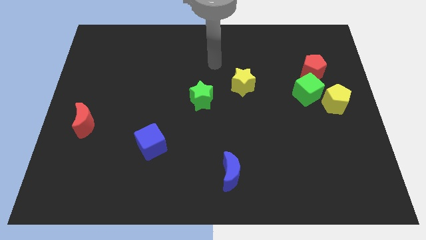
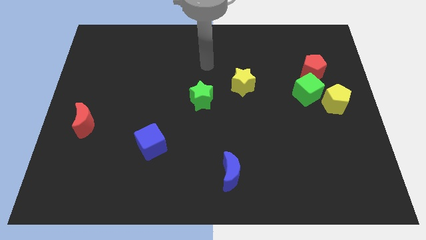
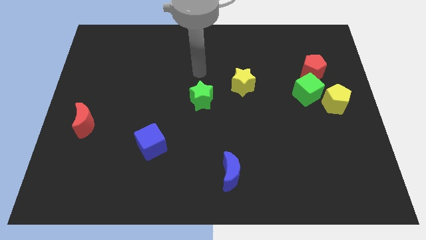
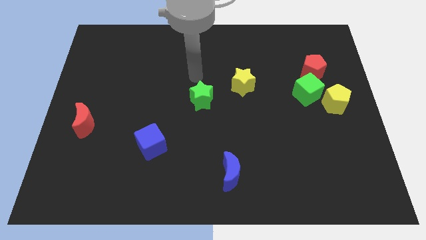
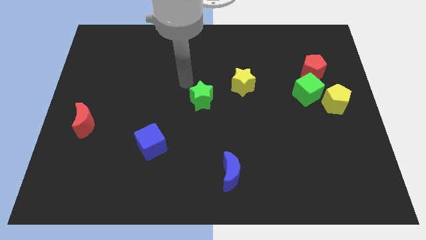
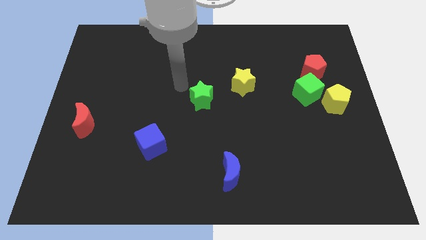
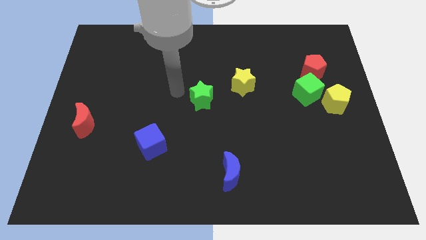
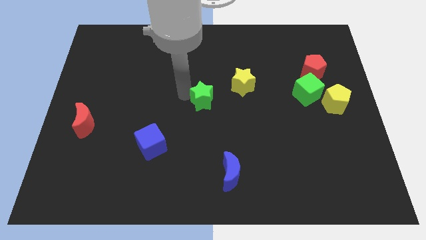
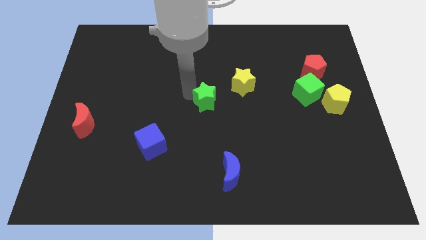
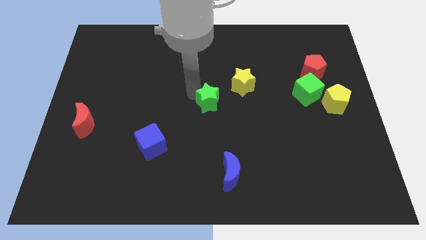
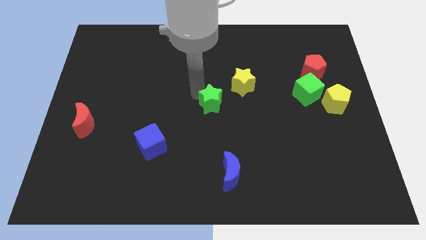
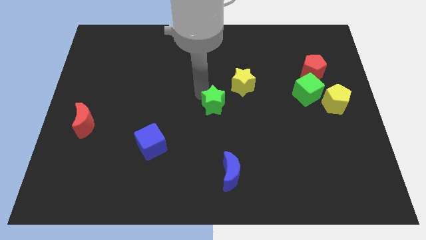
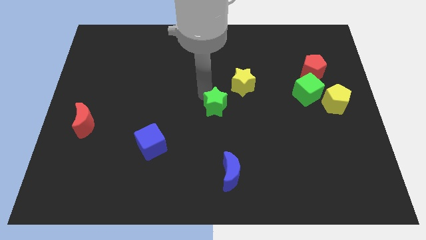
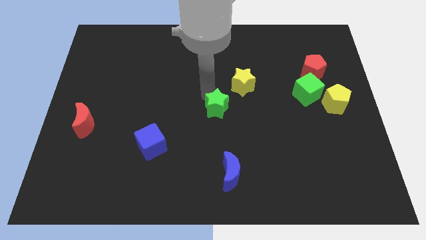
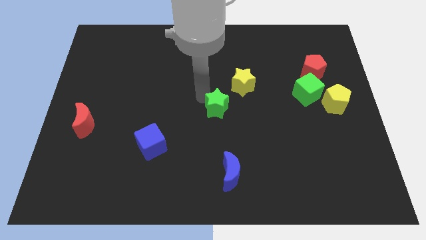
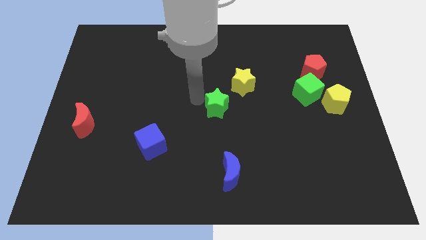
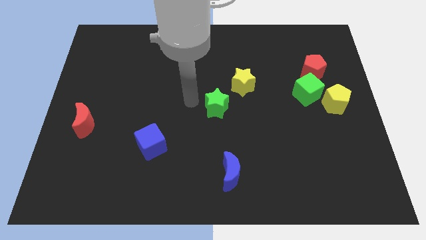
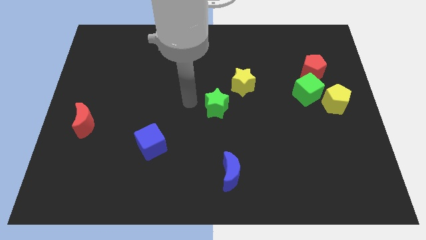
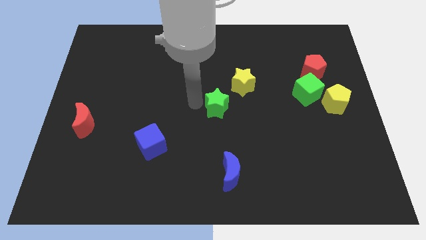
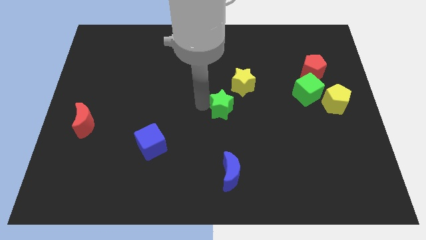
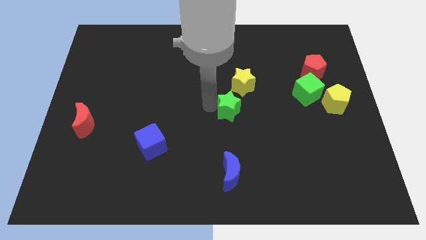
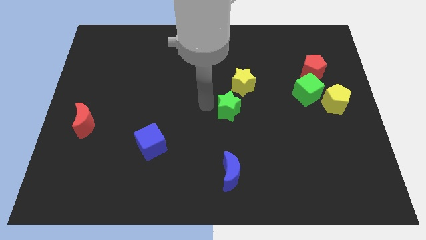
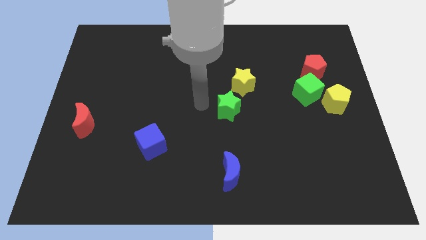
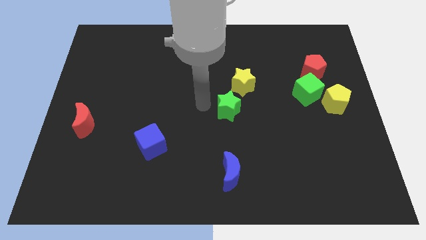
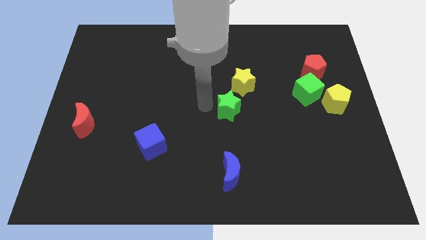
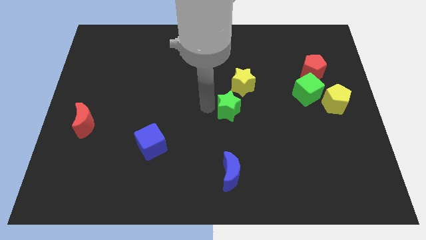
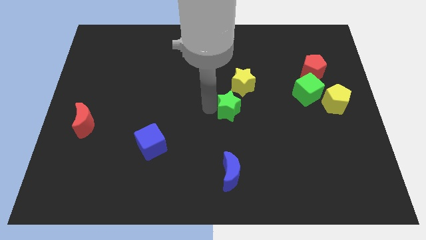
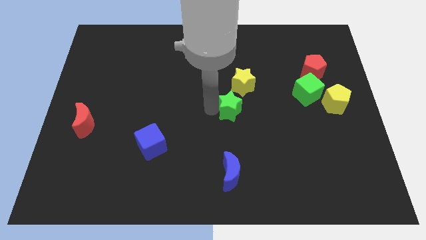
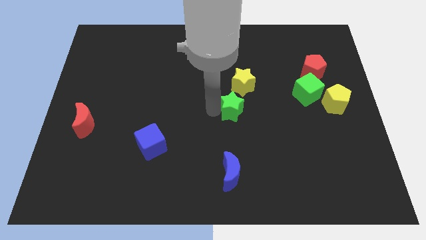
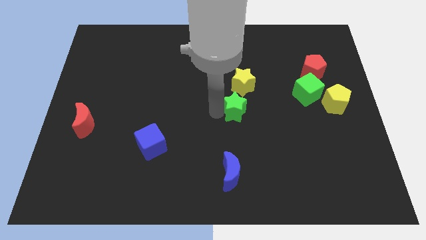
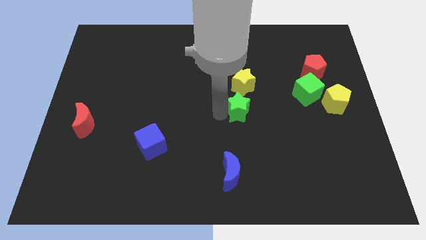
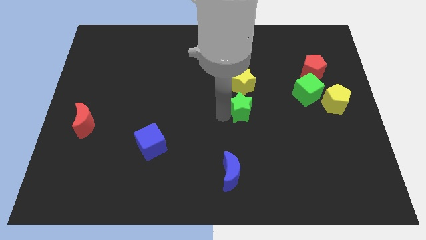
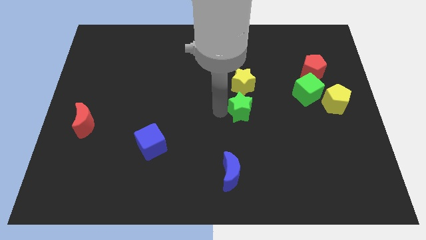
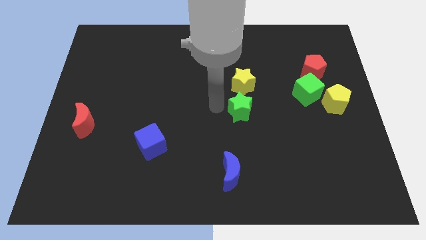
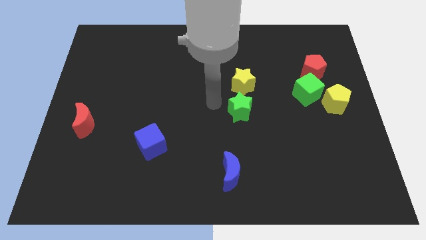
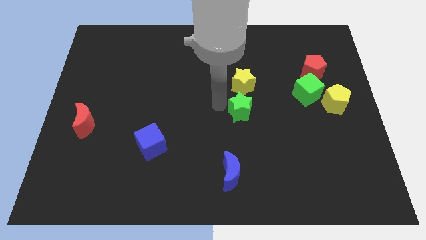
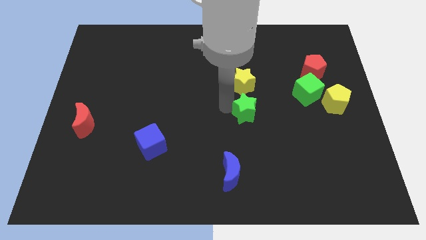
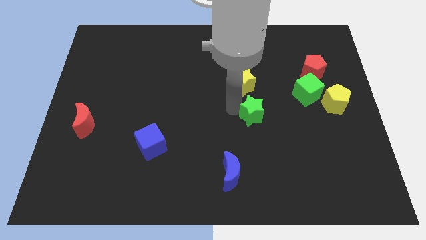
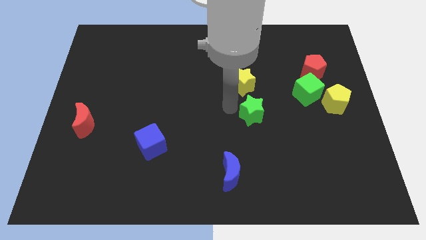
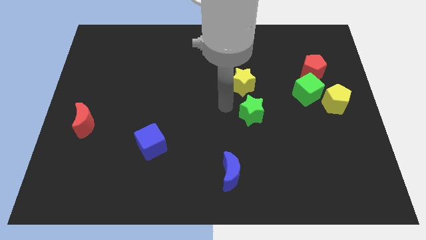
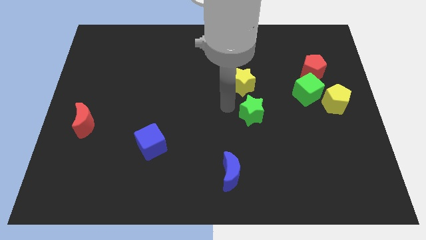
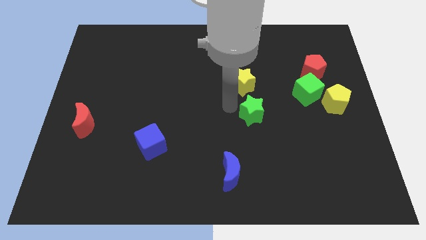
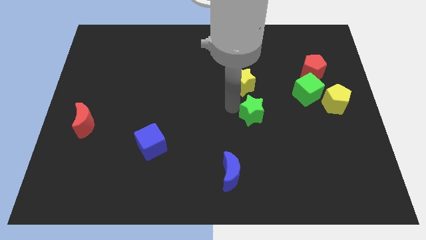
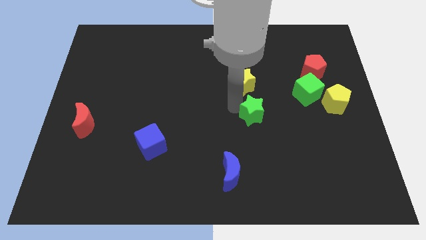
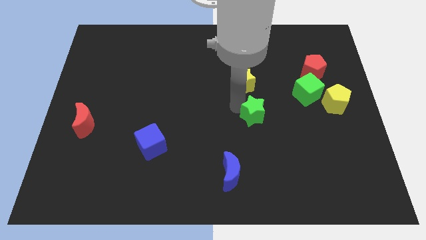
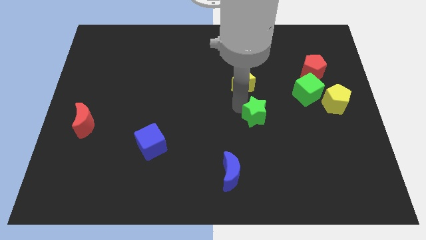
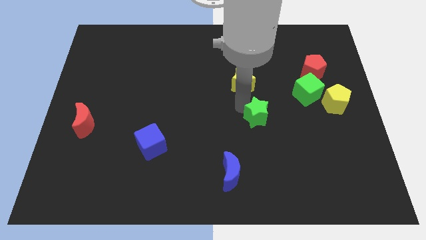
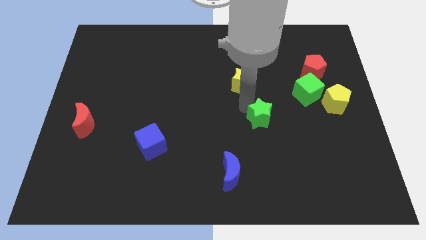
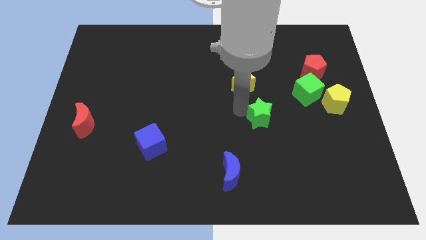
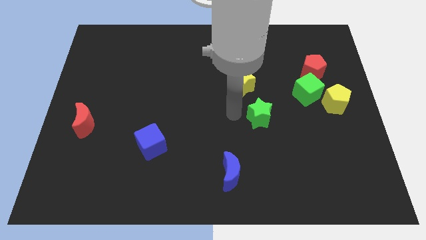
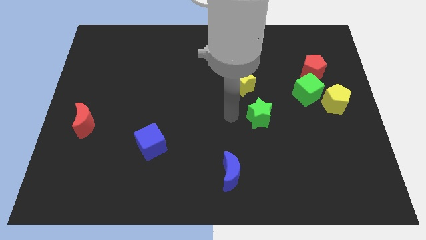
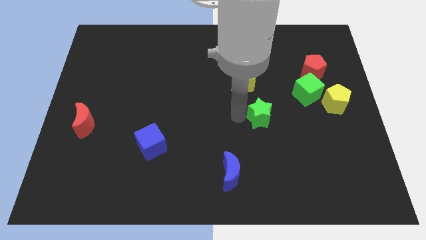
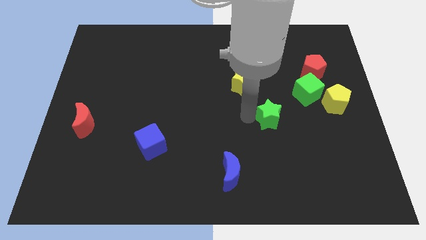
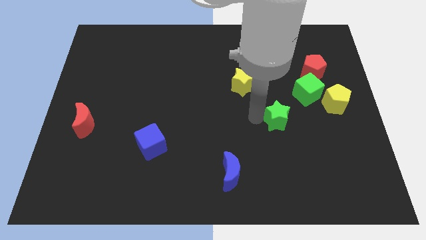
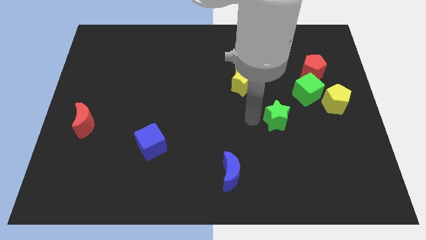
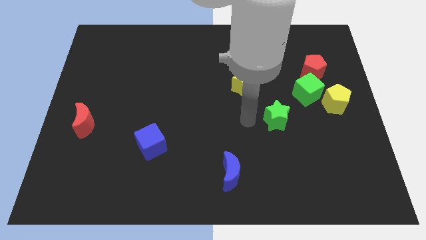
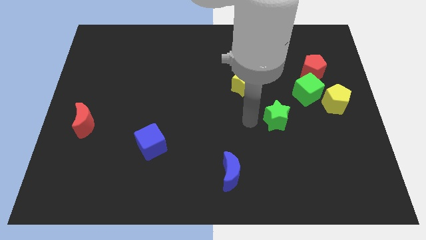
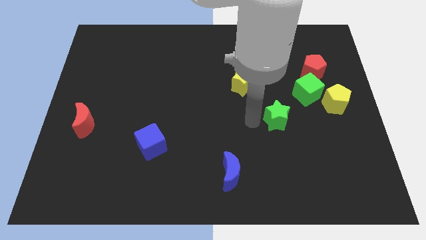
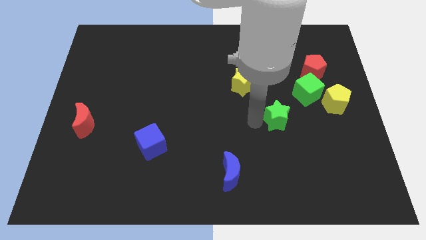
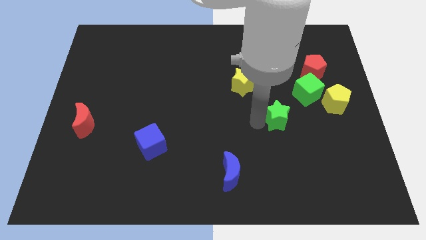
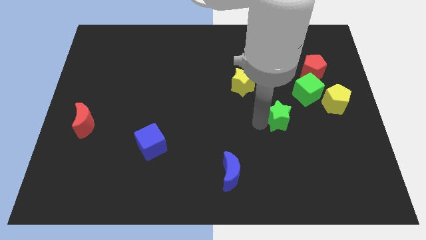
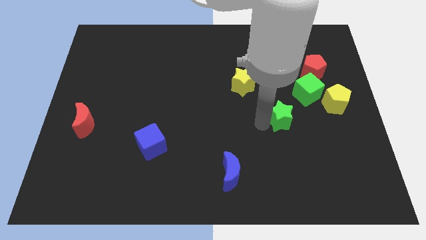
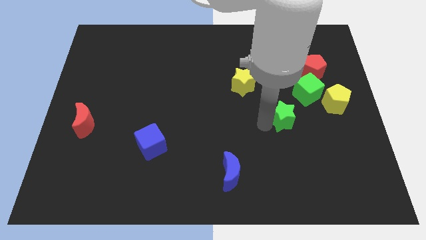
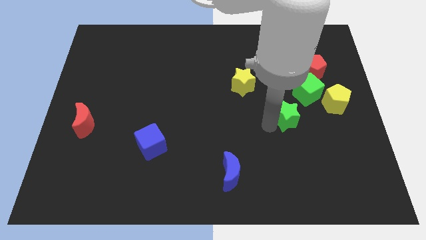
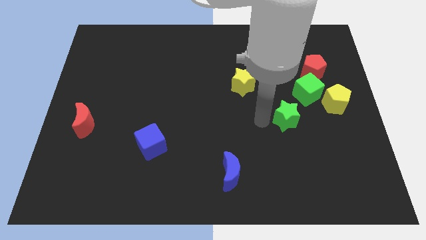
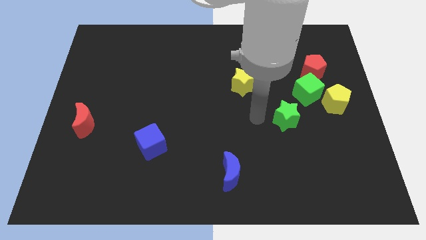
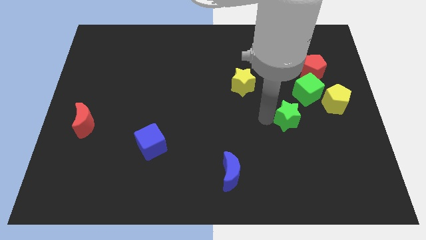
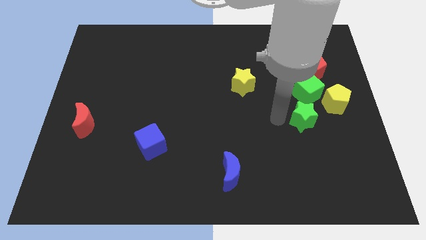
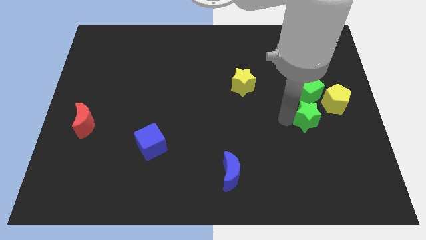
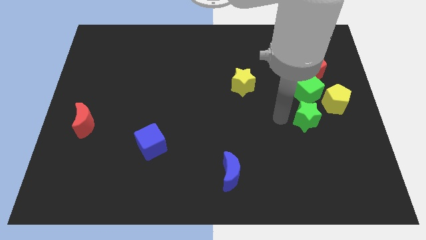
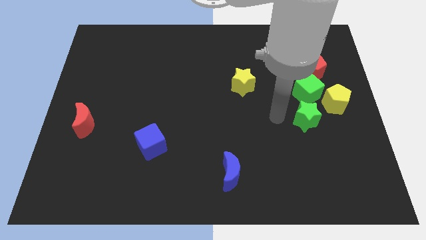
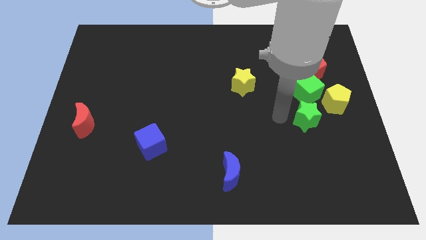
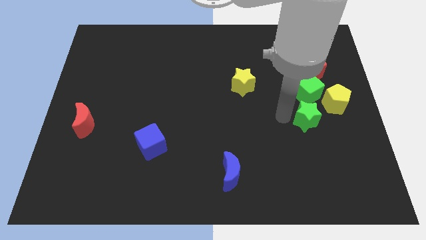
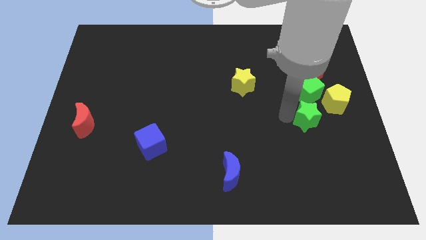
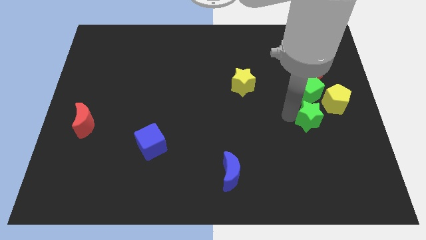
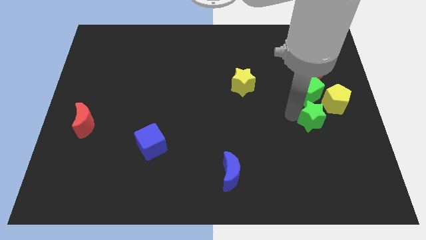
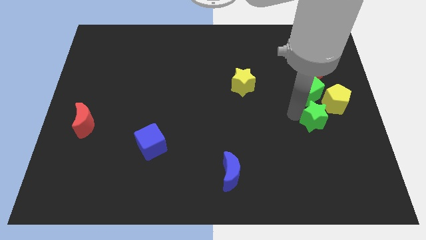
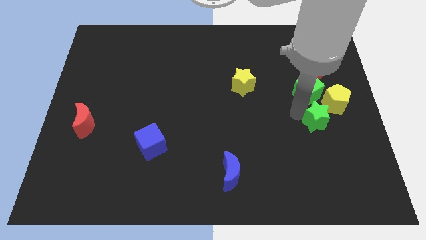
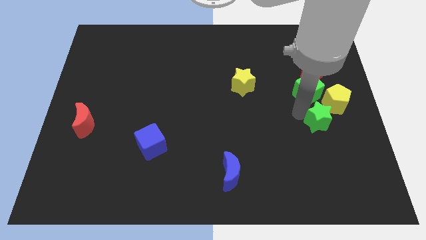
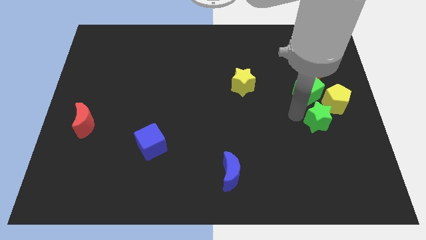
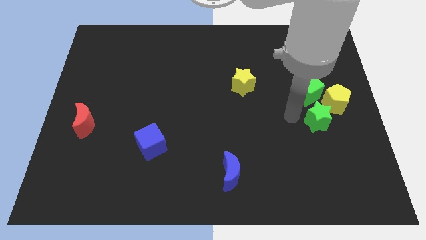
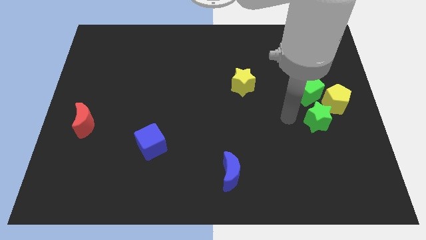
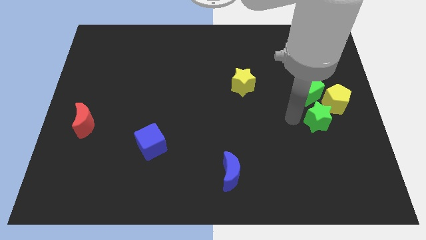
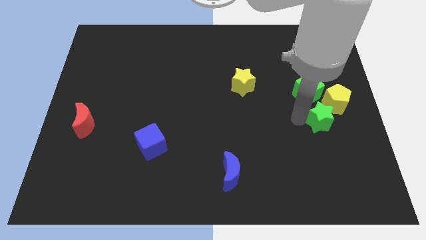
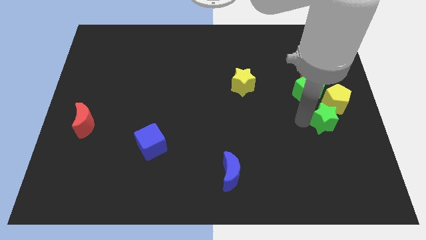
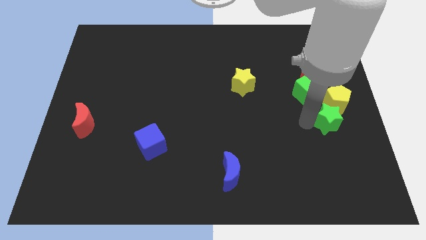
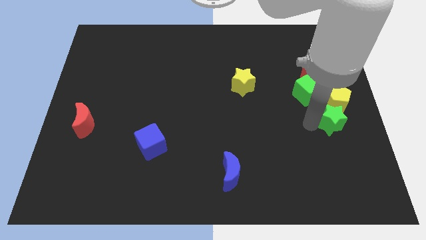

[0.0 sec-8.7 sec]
move the green star to the right side of the board
